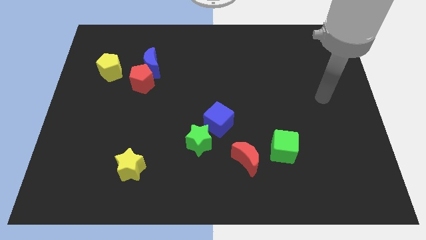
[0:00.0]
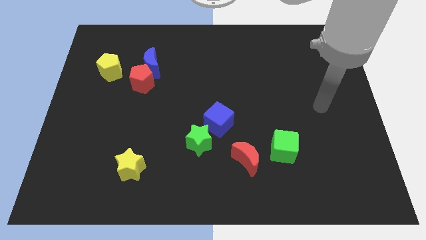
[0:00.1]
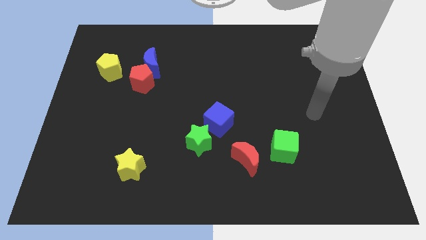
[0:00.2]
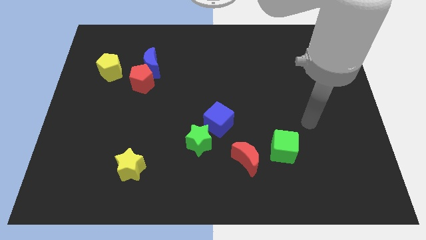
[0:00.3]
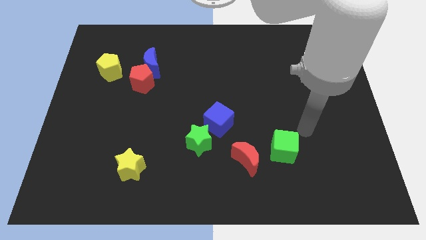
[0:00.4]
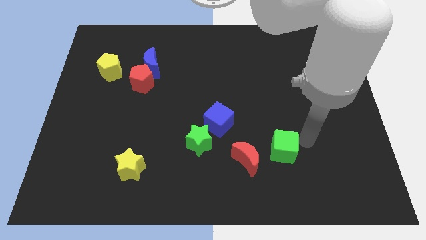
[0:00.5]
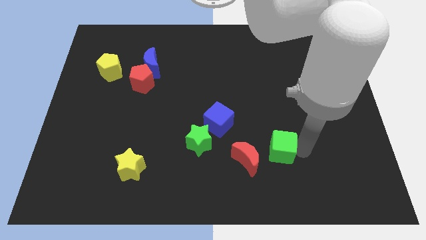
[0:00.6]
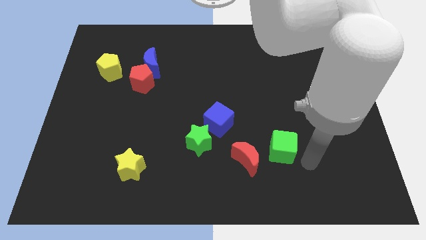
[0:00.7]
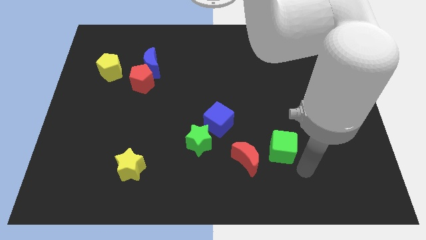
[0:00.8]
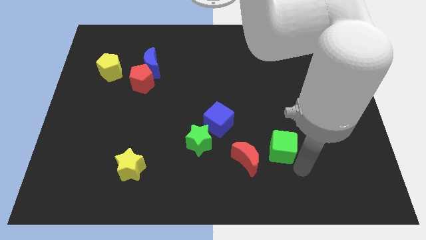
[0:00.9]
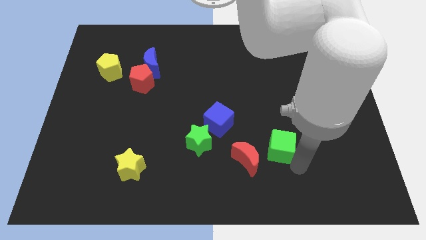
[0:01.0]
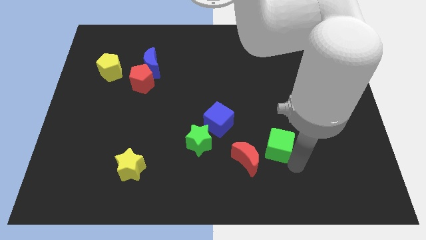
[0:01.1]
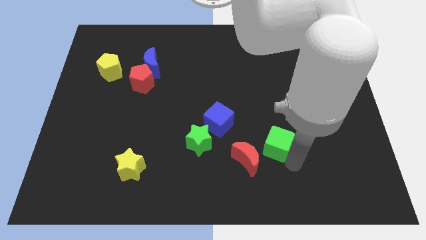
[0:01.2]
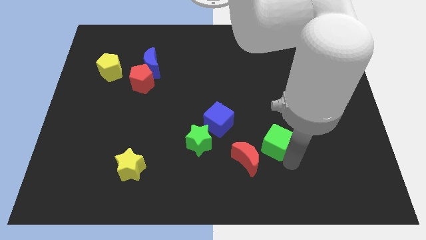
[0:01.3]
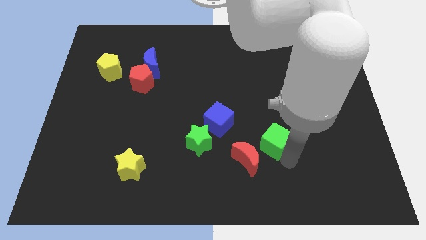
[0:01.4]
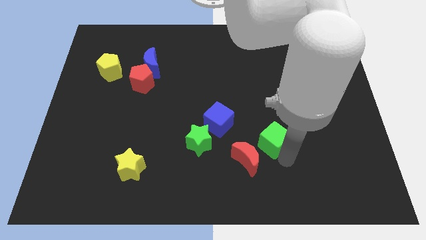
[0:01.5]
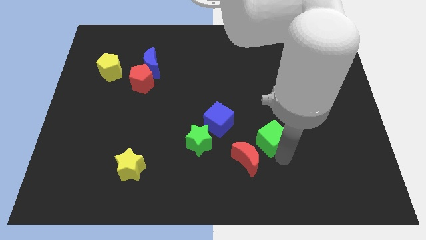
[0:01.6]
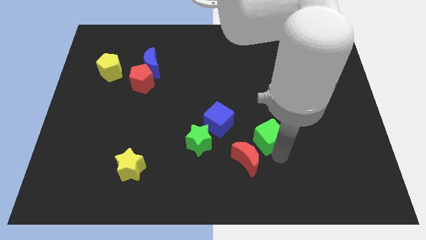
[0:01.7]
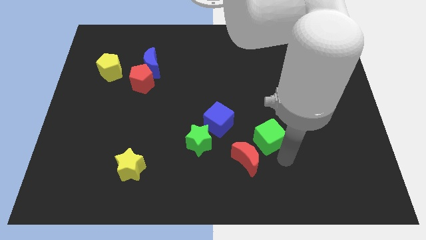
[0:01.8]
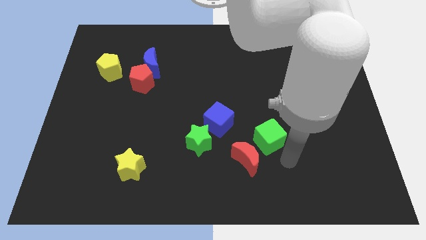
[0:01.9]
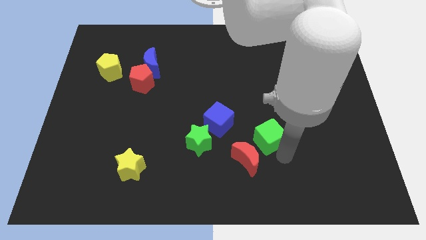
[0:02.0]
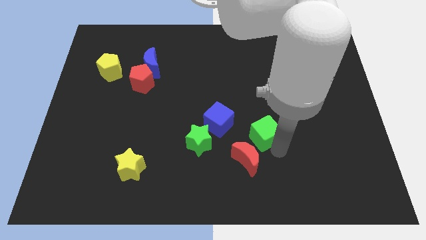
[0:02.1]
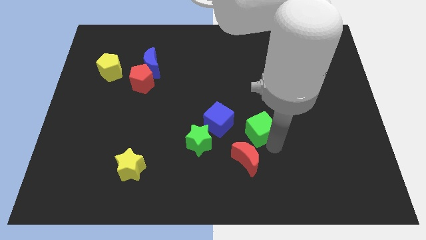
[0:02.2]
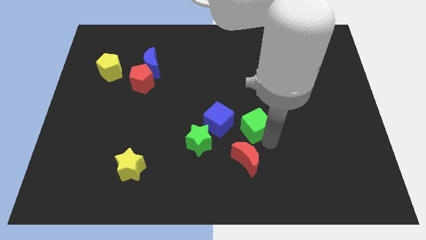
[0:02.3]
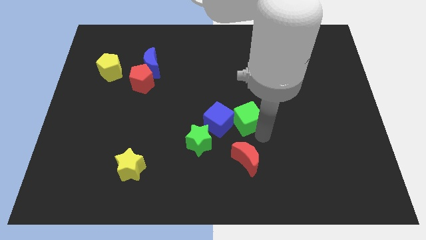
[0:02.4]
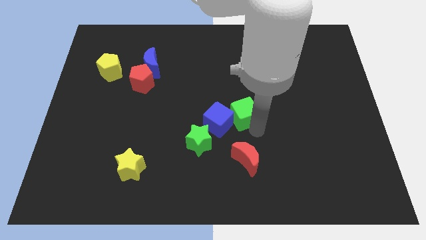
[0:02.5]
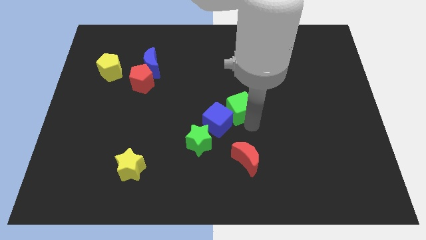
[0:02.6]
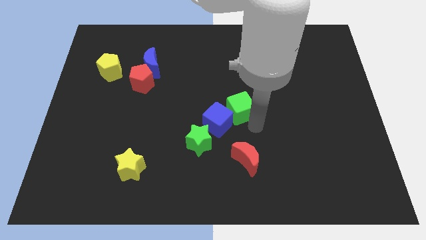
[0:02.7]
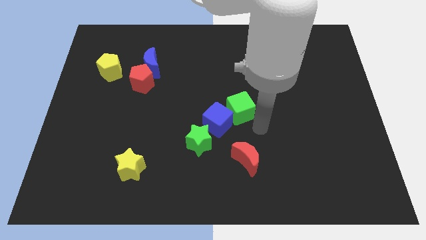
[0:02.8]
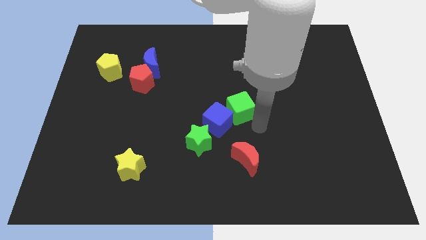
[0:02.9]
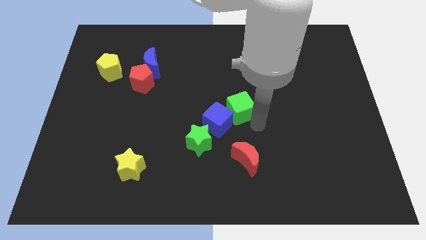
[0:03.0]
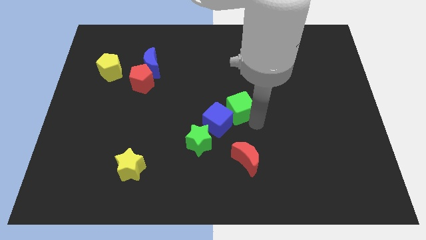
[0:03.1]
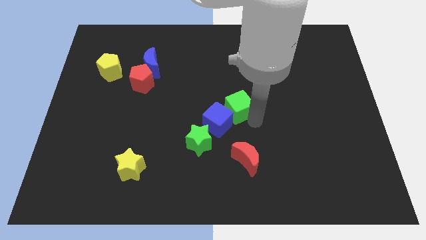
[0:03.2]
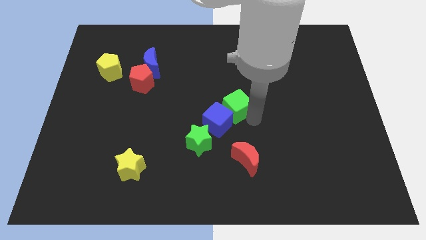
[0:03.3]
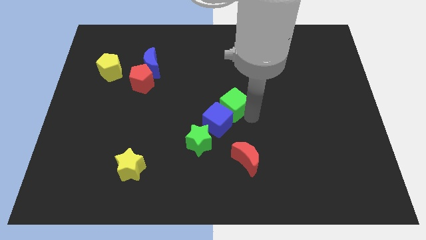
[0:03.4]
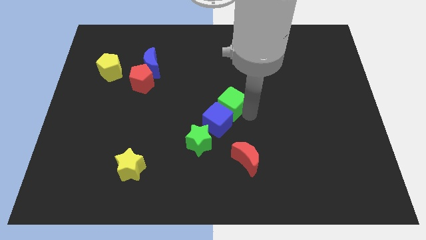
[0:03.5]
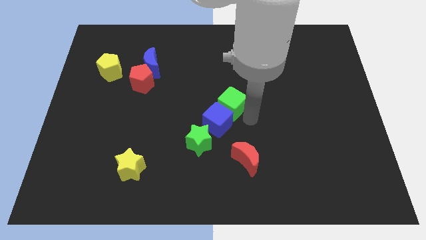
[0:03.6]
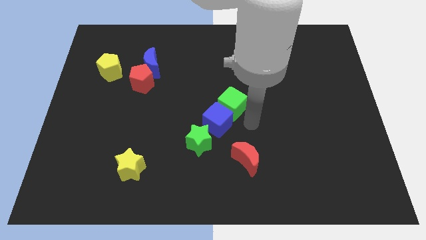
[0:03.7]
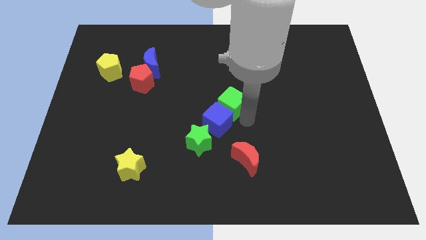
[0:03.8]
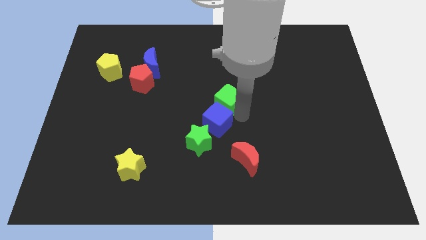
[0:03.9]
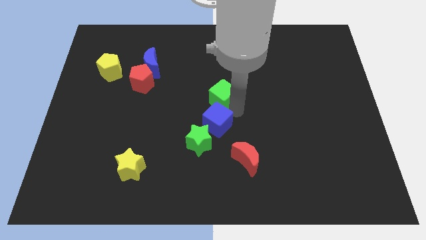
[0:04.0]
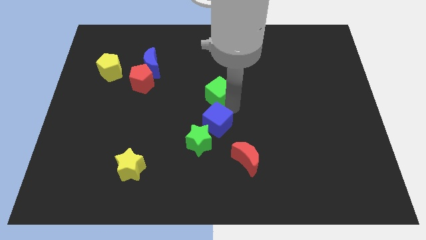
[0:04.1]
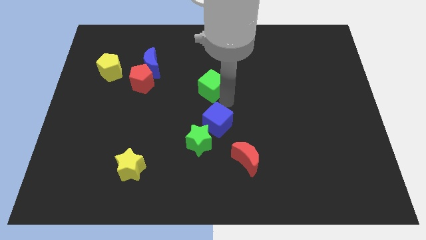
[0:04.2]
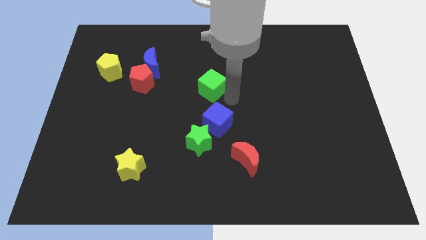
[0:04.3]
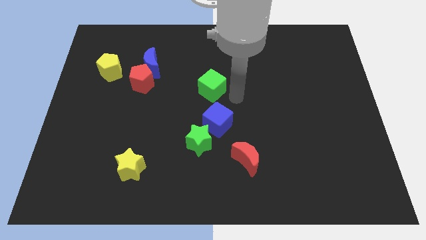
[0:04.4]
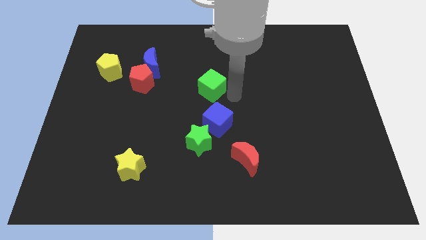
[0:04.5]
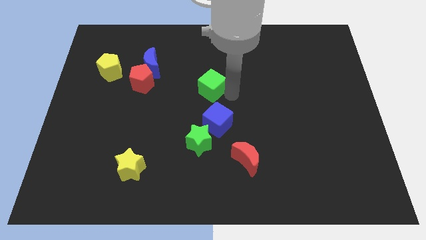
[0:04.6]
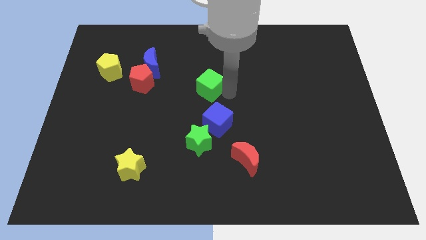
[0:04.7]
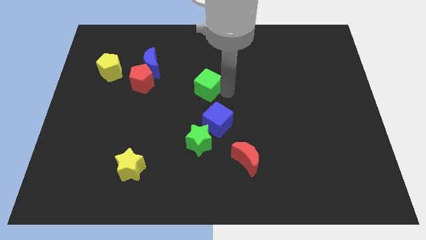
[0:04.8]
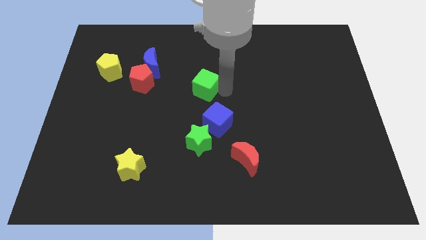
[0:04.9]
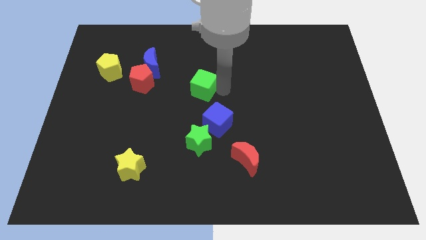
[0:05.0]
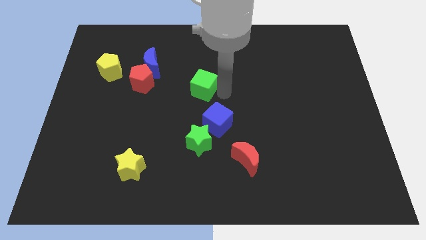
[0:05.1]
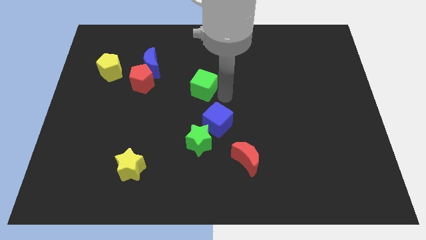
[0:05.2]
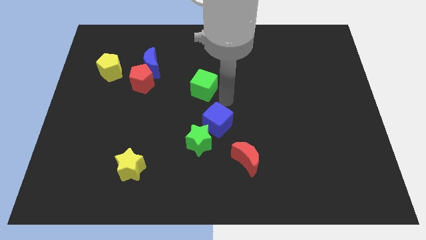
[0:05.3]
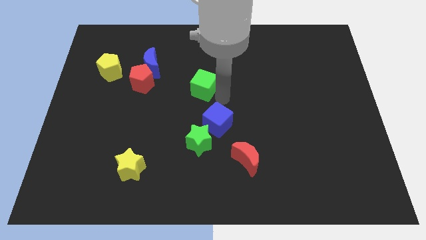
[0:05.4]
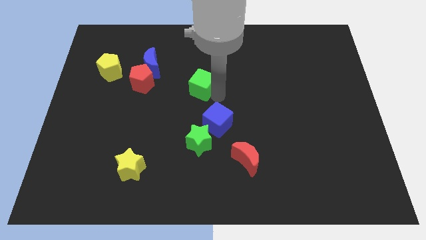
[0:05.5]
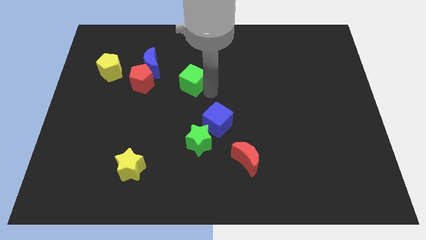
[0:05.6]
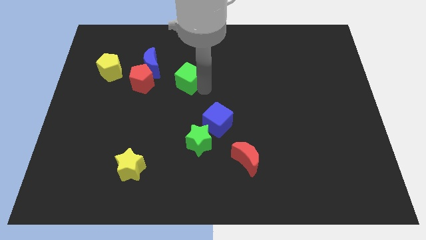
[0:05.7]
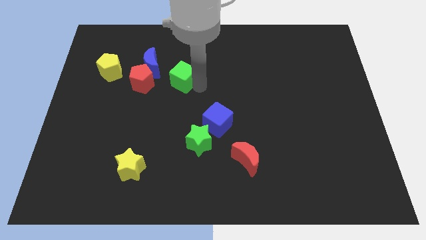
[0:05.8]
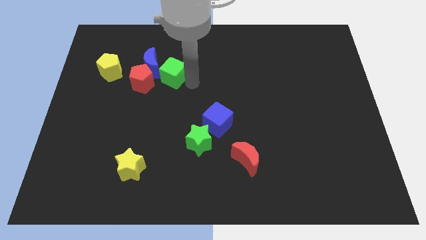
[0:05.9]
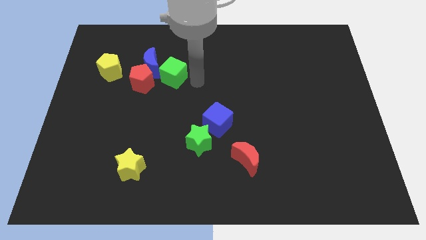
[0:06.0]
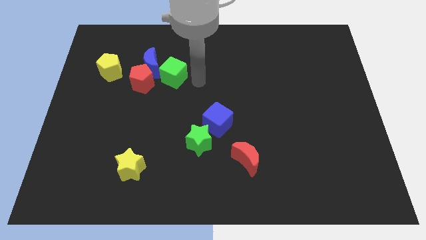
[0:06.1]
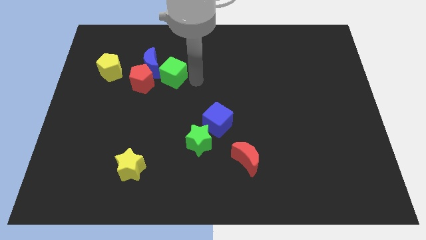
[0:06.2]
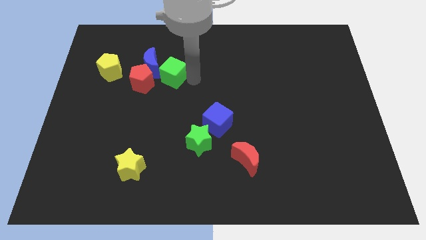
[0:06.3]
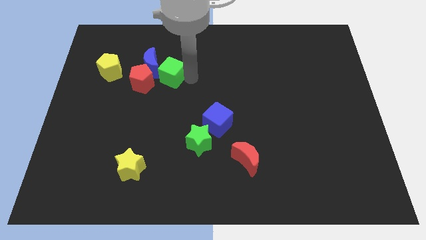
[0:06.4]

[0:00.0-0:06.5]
put the green cube just right of the yellow pentagon
